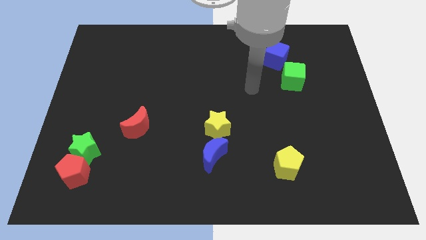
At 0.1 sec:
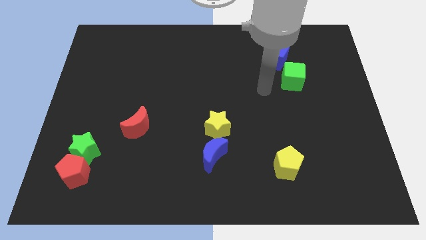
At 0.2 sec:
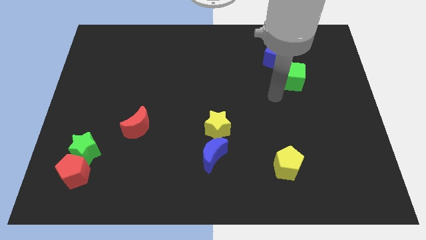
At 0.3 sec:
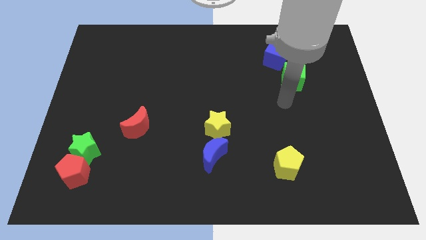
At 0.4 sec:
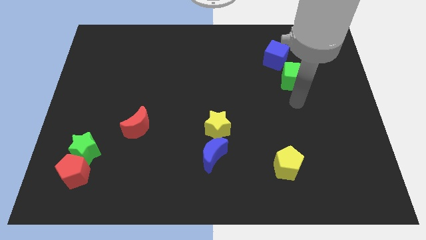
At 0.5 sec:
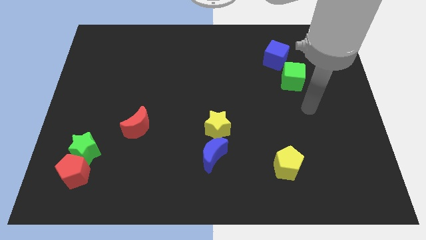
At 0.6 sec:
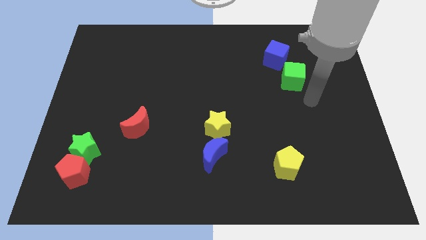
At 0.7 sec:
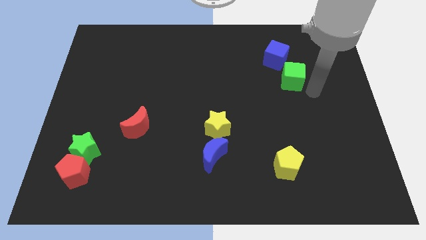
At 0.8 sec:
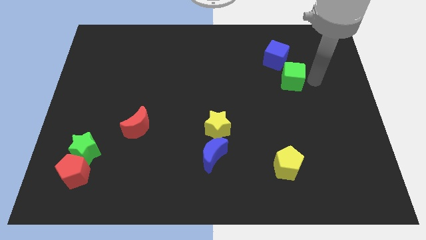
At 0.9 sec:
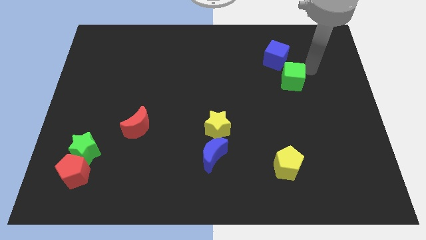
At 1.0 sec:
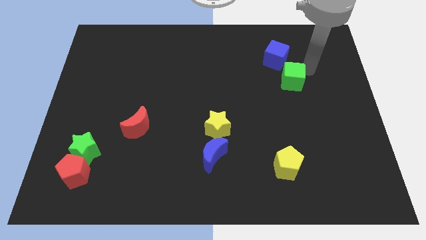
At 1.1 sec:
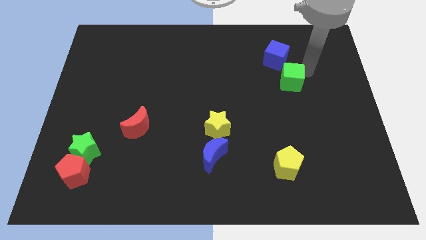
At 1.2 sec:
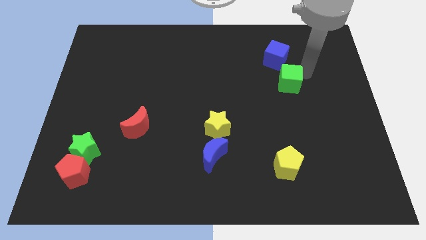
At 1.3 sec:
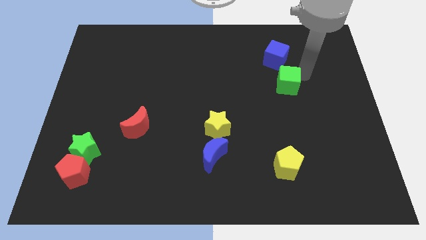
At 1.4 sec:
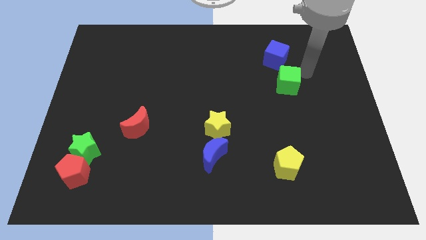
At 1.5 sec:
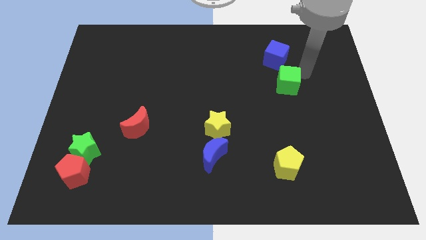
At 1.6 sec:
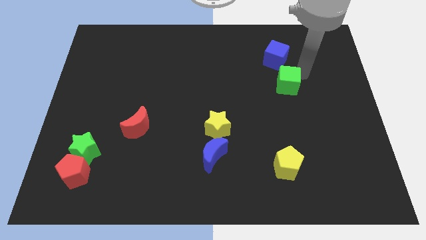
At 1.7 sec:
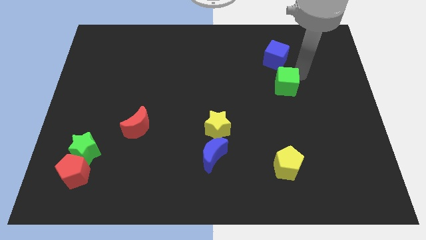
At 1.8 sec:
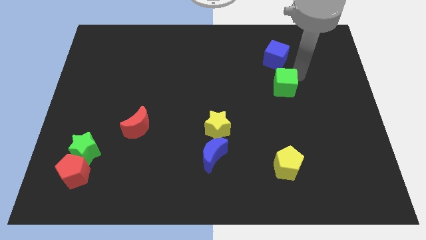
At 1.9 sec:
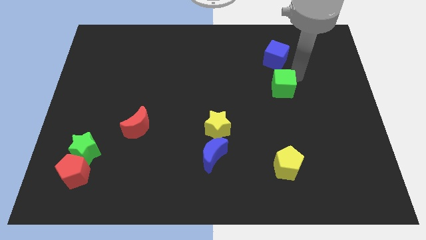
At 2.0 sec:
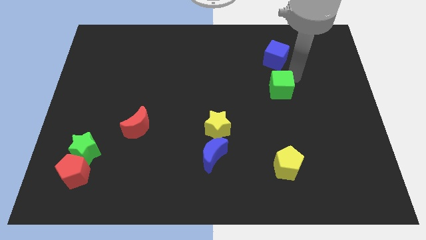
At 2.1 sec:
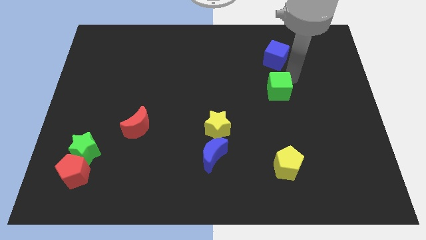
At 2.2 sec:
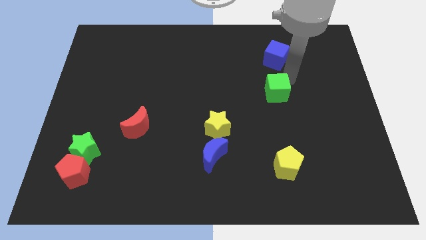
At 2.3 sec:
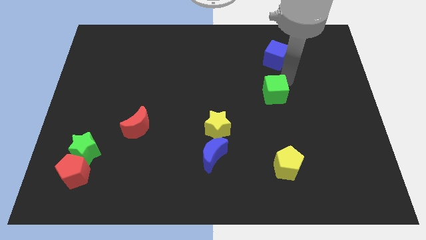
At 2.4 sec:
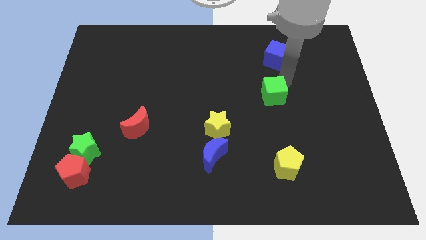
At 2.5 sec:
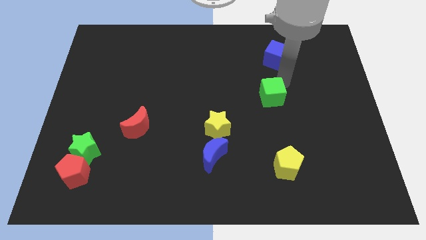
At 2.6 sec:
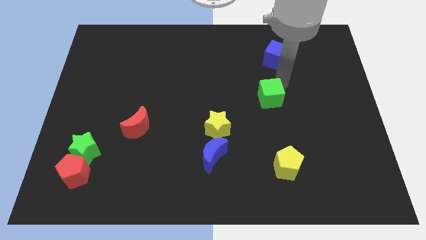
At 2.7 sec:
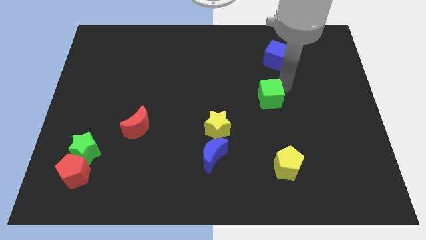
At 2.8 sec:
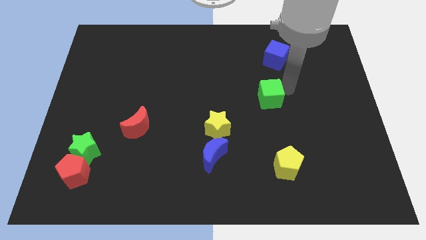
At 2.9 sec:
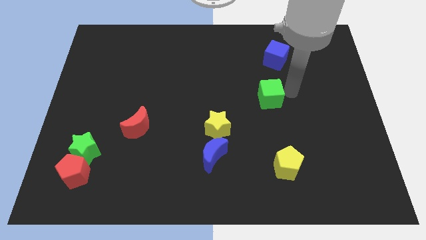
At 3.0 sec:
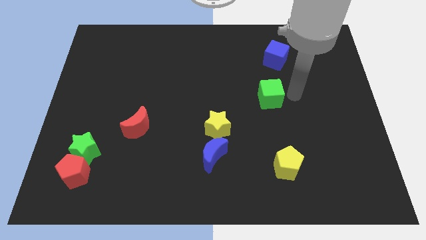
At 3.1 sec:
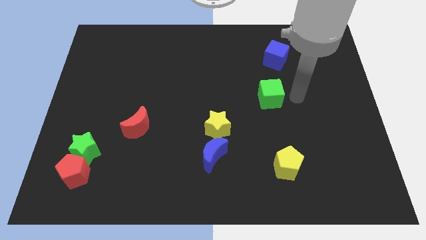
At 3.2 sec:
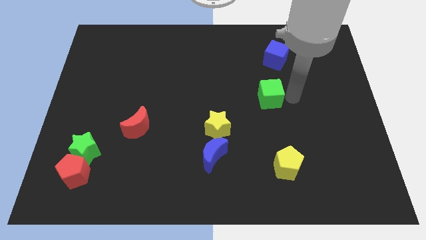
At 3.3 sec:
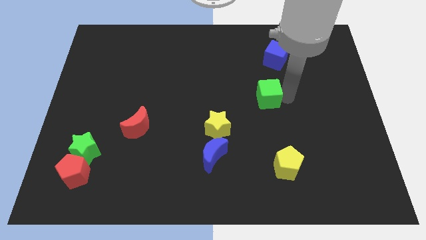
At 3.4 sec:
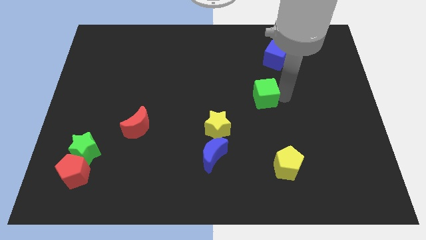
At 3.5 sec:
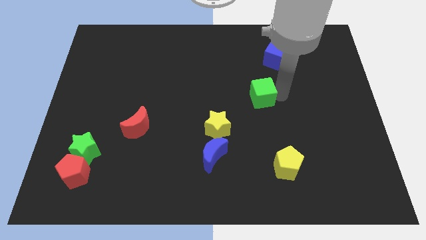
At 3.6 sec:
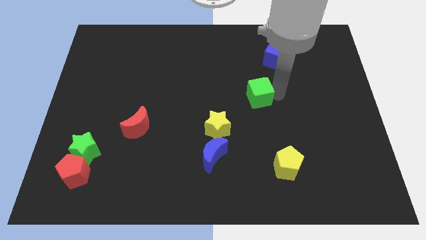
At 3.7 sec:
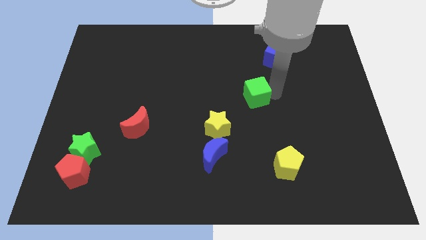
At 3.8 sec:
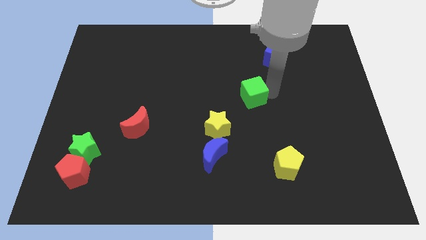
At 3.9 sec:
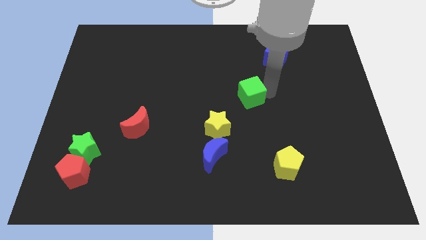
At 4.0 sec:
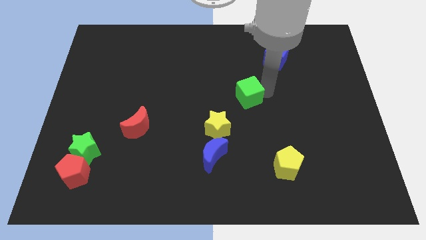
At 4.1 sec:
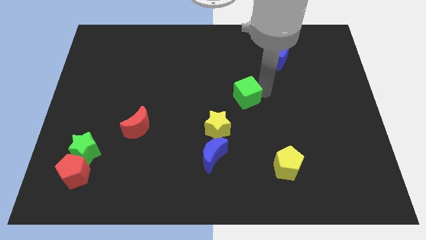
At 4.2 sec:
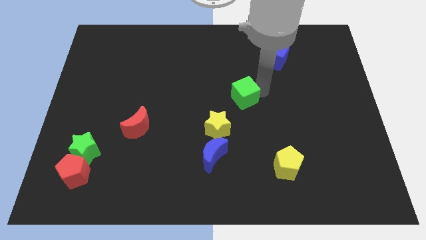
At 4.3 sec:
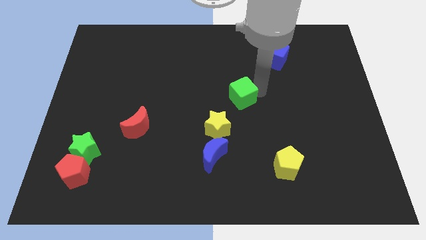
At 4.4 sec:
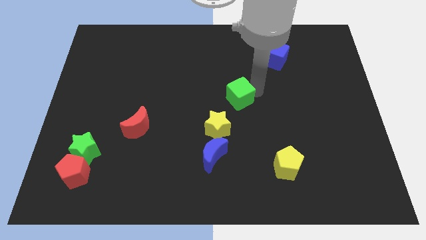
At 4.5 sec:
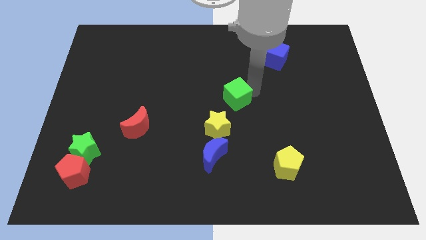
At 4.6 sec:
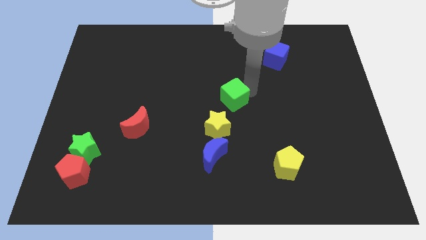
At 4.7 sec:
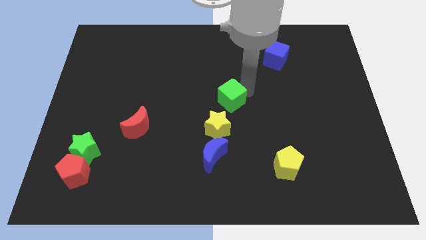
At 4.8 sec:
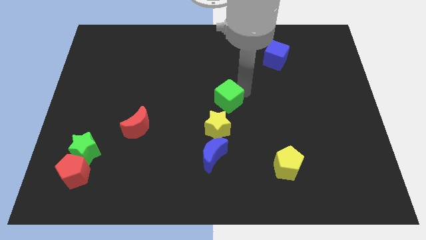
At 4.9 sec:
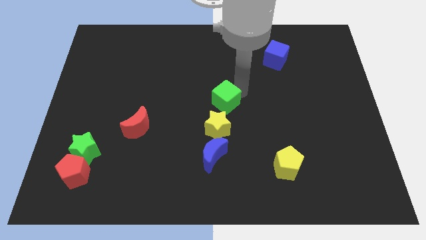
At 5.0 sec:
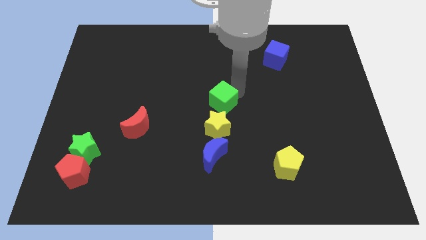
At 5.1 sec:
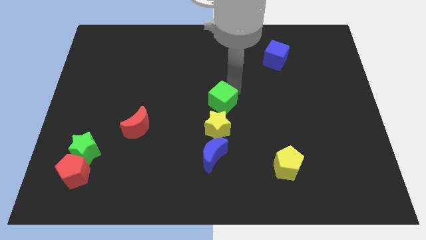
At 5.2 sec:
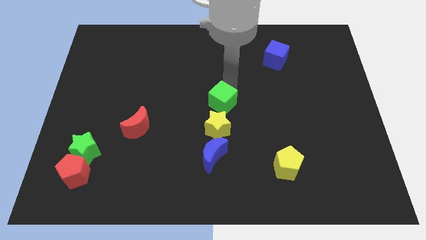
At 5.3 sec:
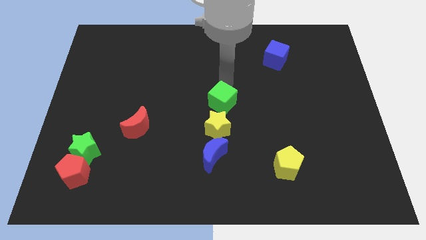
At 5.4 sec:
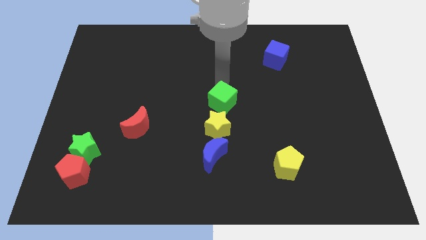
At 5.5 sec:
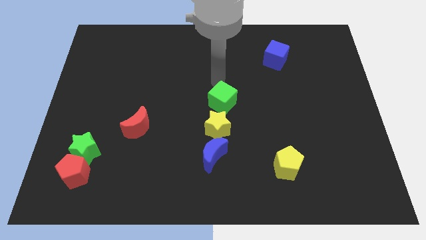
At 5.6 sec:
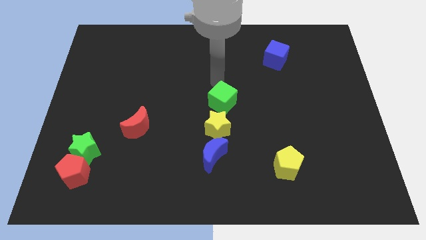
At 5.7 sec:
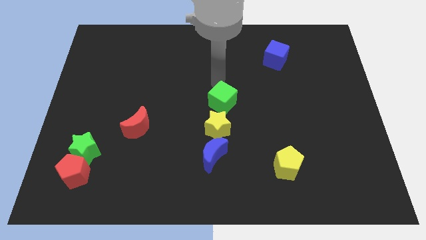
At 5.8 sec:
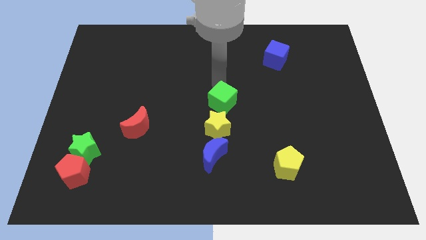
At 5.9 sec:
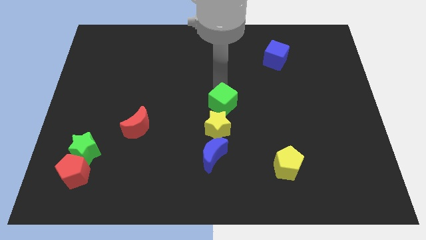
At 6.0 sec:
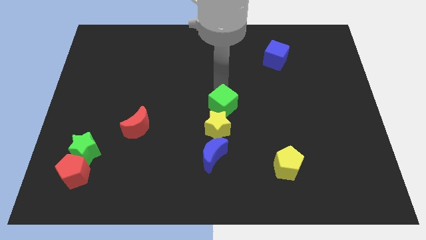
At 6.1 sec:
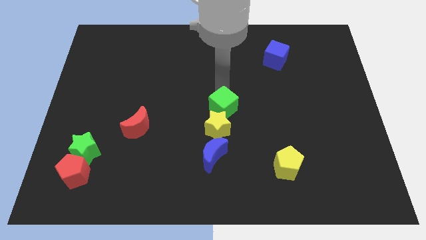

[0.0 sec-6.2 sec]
push the green cube close to the yellow star

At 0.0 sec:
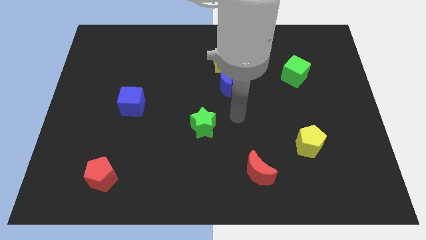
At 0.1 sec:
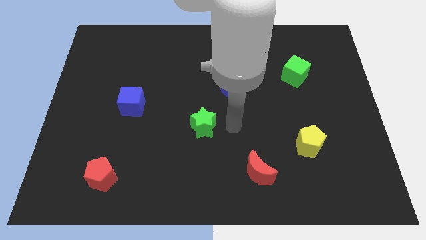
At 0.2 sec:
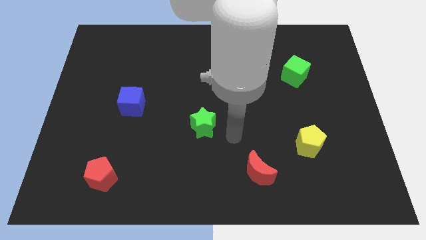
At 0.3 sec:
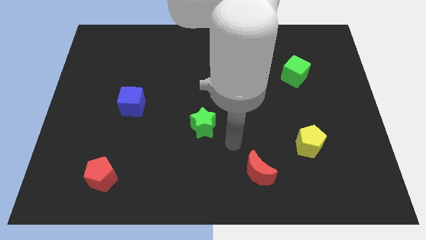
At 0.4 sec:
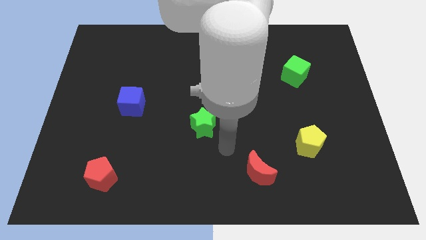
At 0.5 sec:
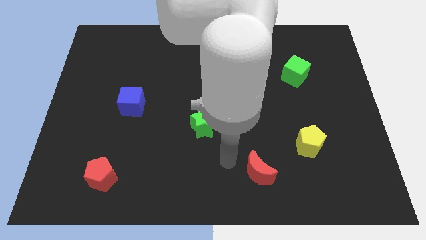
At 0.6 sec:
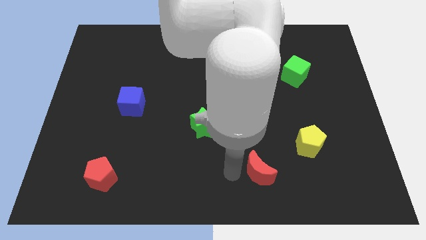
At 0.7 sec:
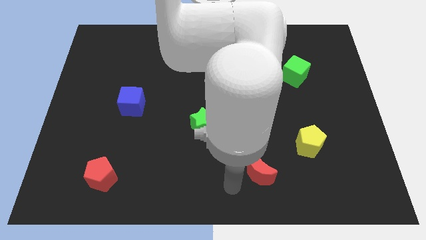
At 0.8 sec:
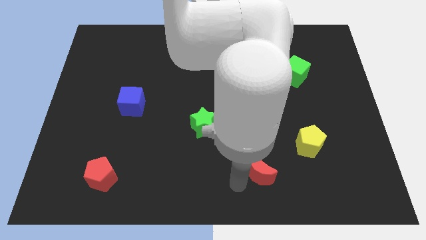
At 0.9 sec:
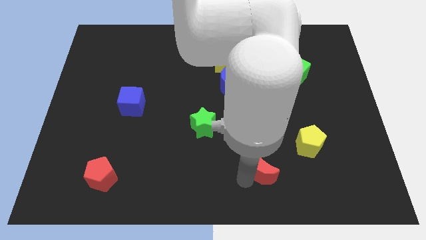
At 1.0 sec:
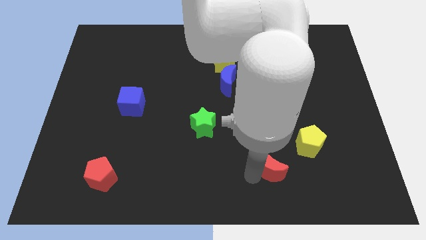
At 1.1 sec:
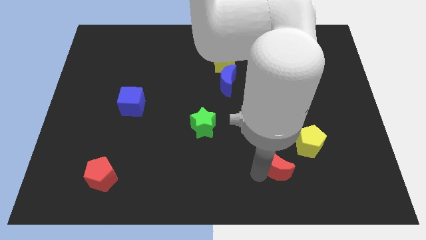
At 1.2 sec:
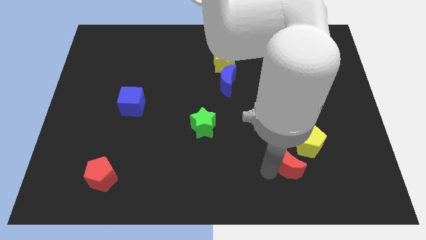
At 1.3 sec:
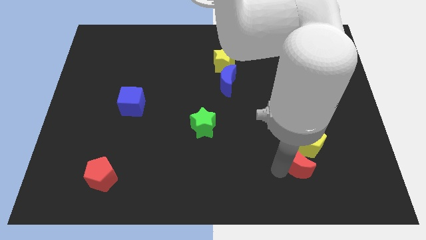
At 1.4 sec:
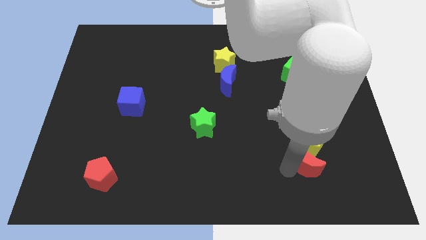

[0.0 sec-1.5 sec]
put the red moon next to the yellow pentagon

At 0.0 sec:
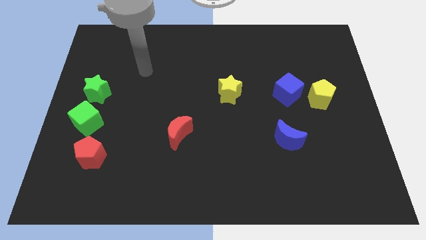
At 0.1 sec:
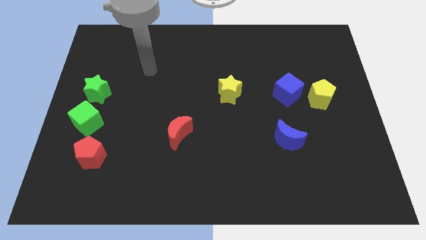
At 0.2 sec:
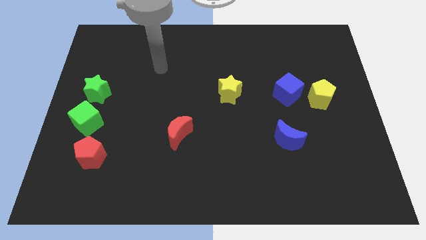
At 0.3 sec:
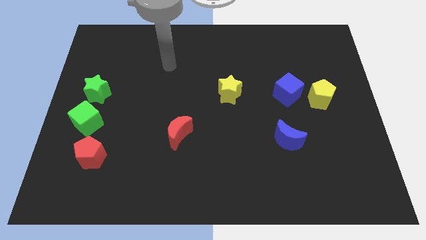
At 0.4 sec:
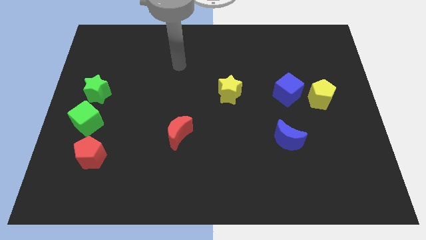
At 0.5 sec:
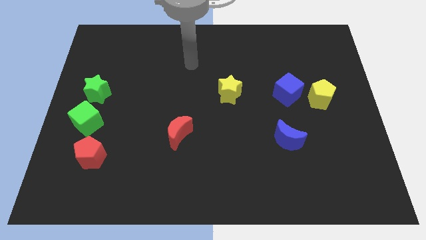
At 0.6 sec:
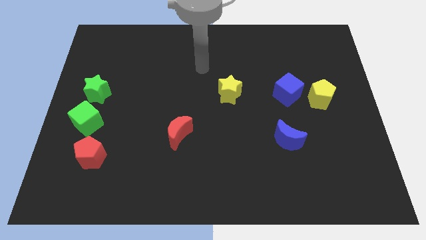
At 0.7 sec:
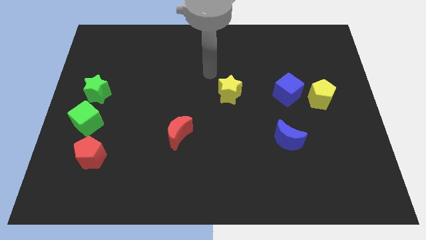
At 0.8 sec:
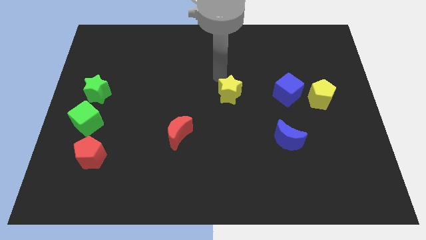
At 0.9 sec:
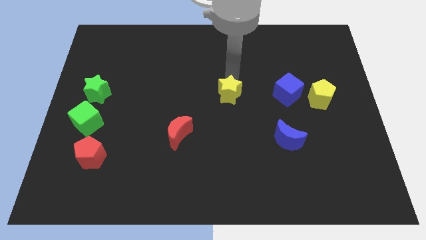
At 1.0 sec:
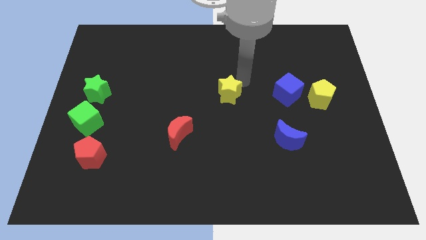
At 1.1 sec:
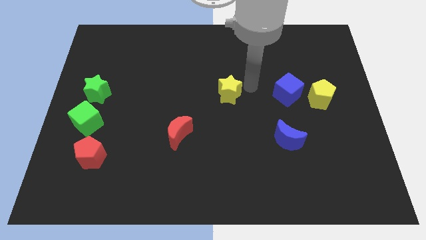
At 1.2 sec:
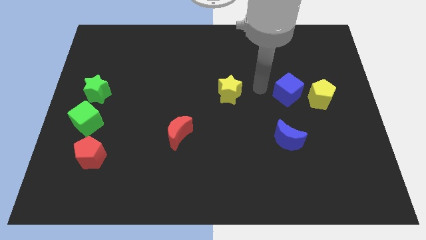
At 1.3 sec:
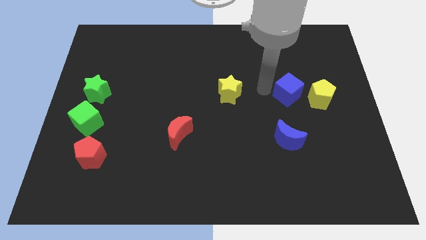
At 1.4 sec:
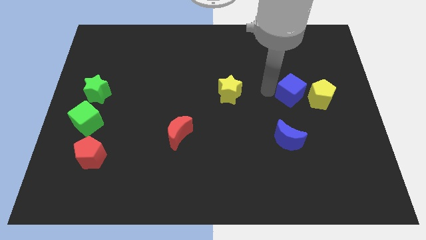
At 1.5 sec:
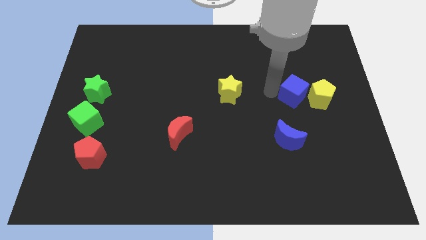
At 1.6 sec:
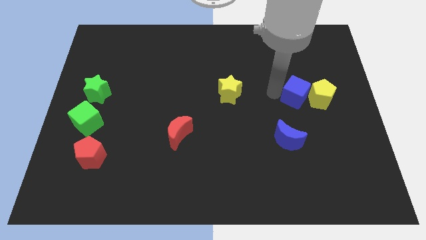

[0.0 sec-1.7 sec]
move the blue cube to the yellow pentagon
